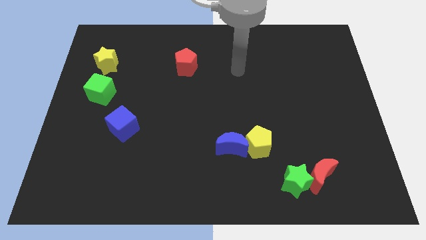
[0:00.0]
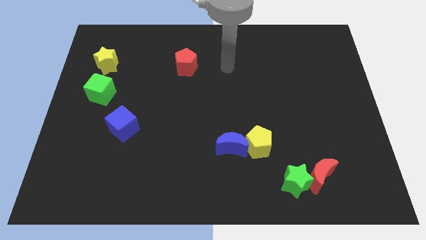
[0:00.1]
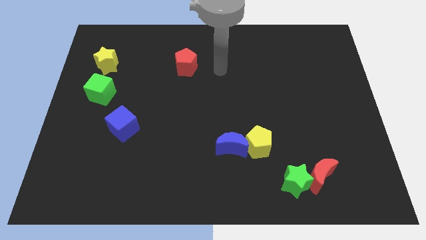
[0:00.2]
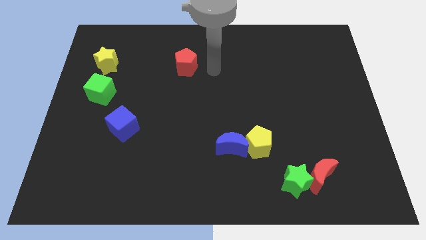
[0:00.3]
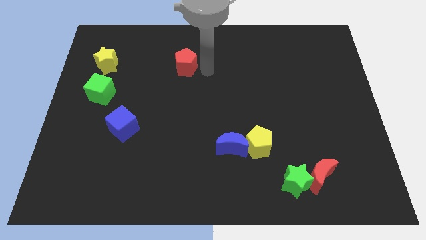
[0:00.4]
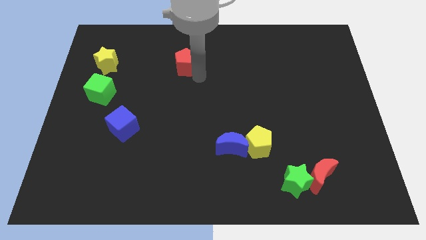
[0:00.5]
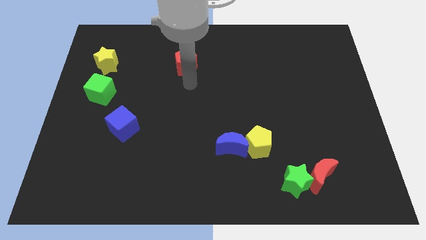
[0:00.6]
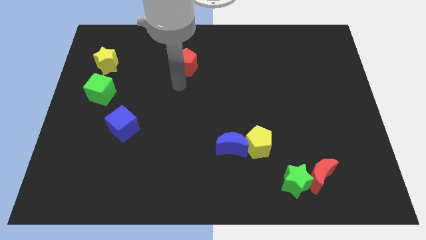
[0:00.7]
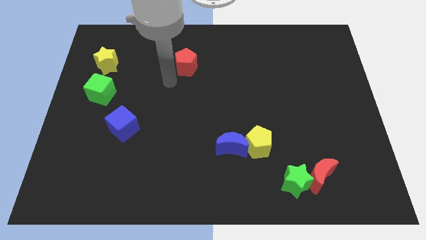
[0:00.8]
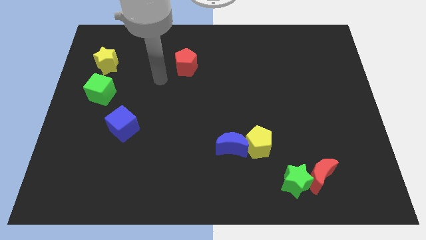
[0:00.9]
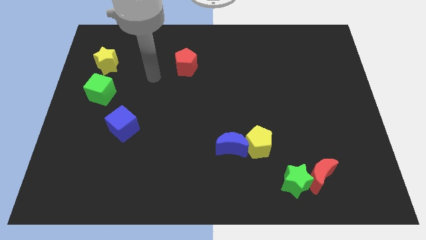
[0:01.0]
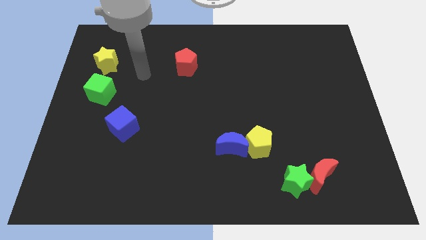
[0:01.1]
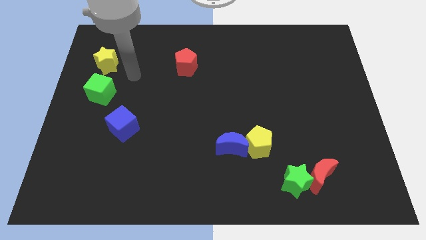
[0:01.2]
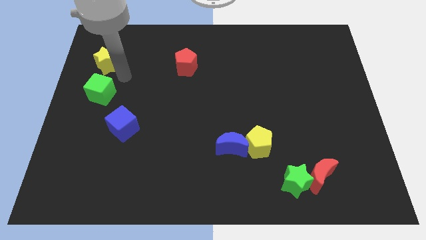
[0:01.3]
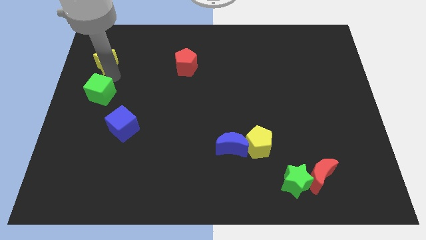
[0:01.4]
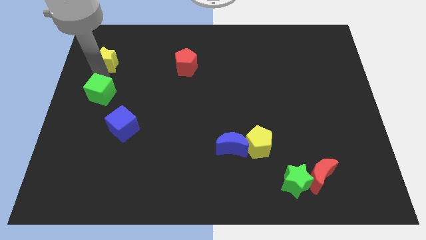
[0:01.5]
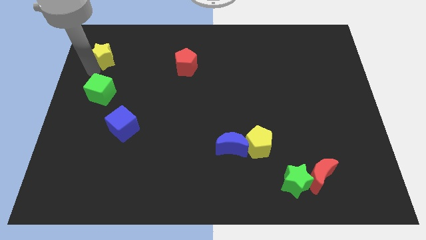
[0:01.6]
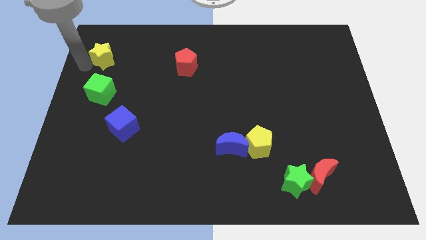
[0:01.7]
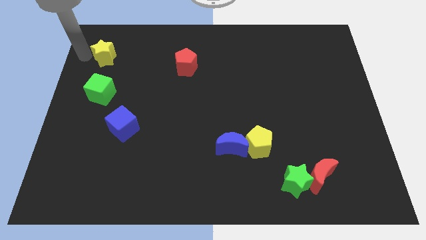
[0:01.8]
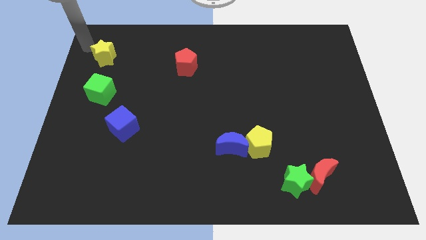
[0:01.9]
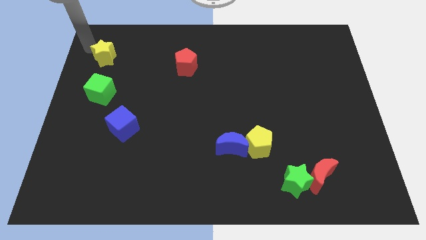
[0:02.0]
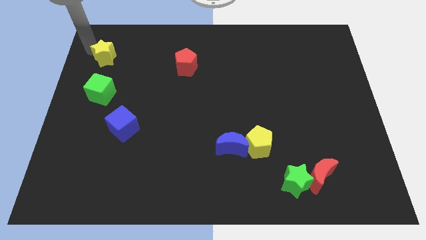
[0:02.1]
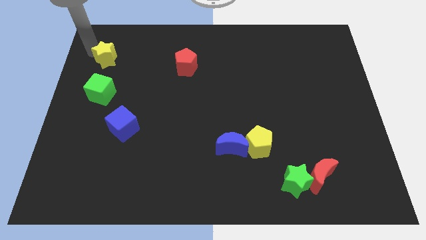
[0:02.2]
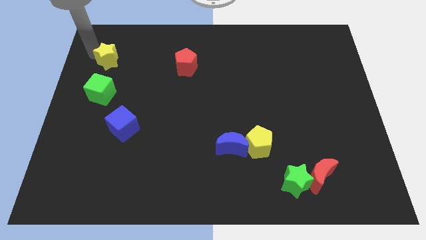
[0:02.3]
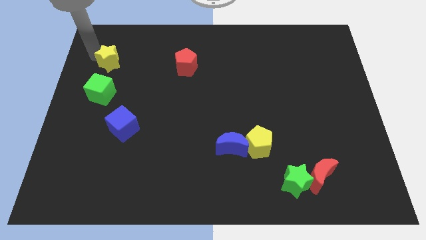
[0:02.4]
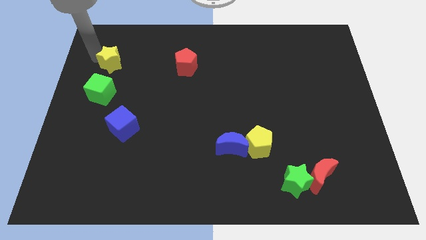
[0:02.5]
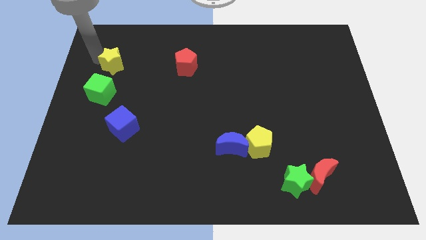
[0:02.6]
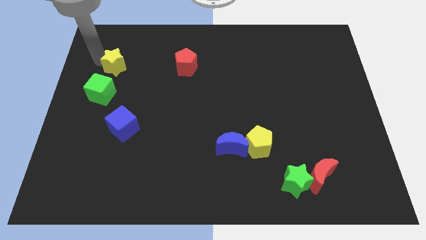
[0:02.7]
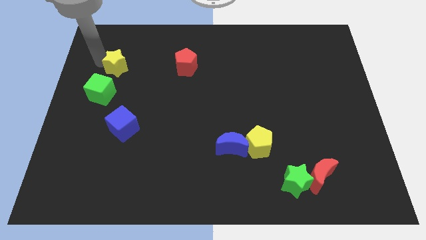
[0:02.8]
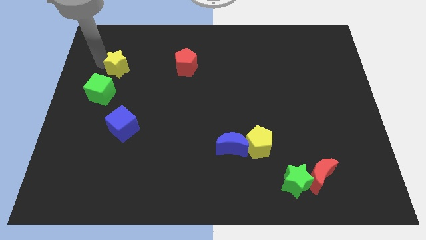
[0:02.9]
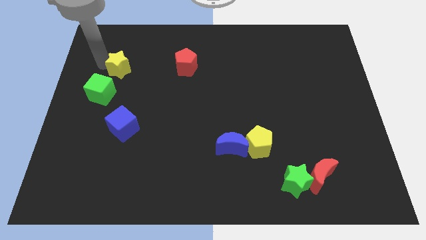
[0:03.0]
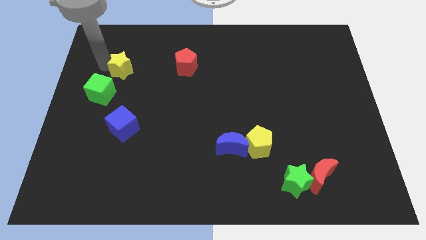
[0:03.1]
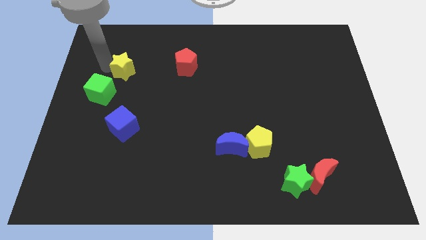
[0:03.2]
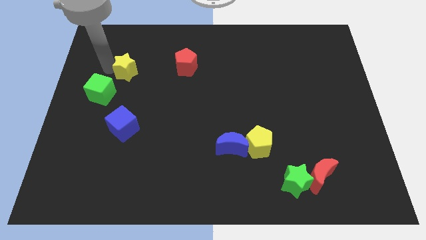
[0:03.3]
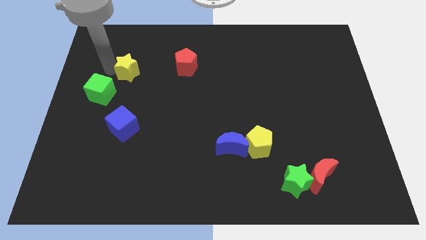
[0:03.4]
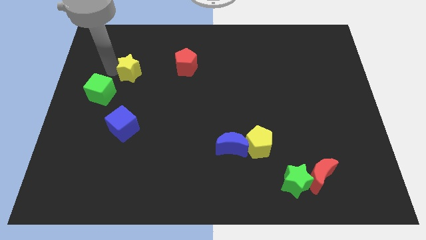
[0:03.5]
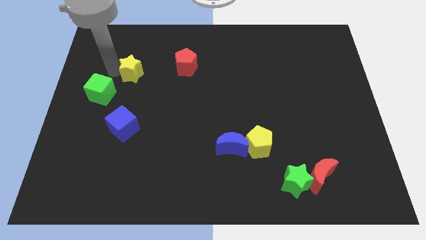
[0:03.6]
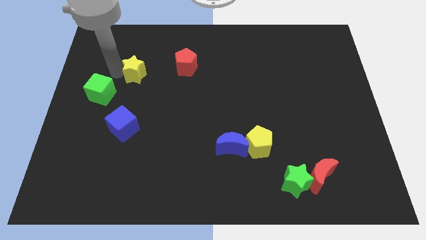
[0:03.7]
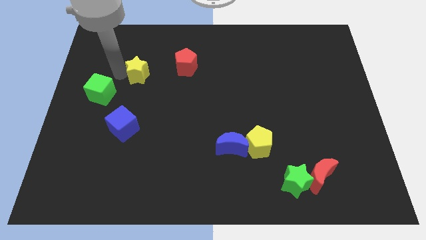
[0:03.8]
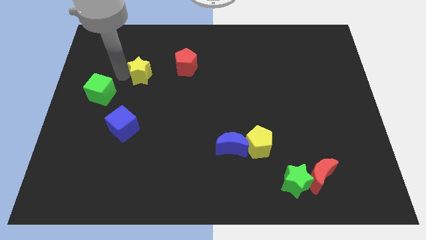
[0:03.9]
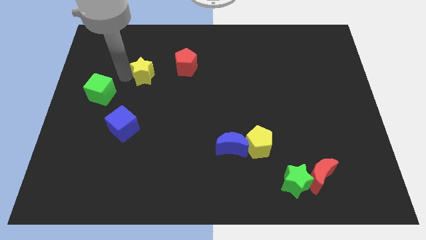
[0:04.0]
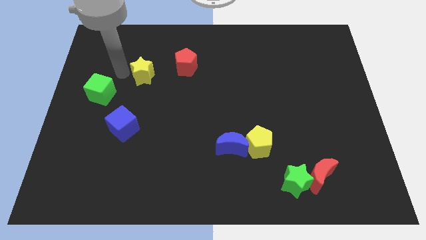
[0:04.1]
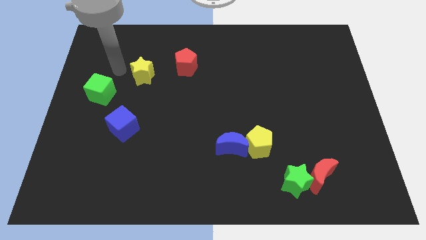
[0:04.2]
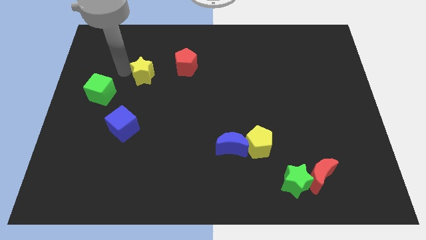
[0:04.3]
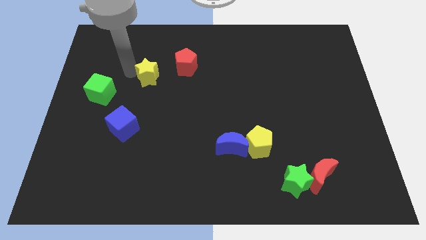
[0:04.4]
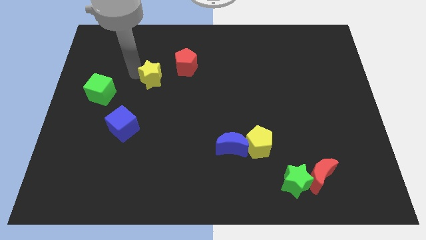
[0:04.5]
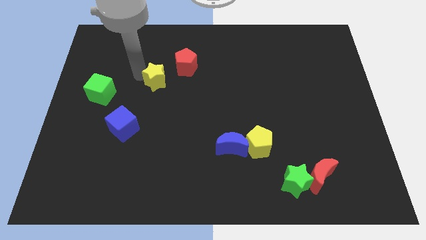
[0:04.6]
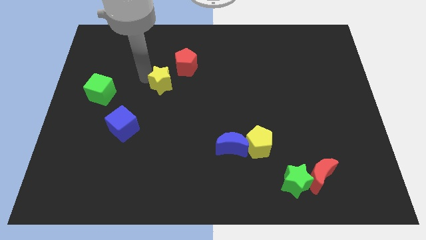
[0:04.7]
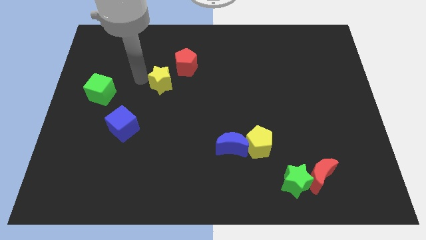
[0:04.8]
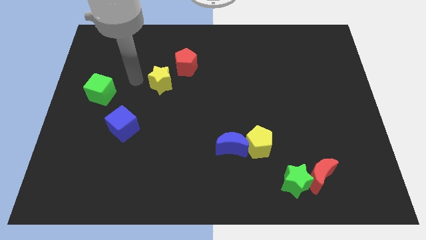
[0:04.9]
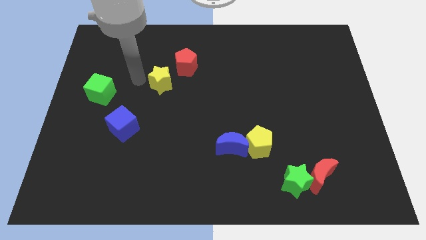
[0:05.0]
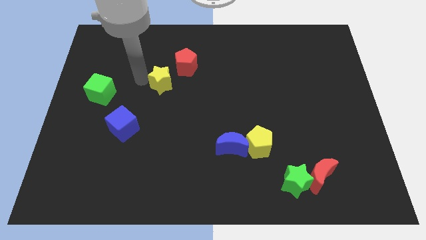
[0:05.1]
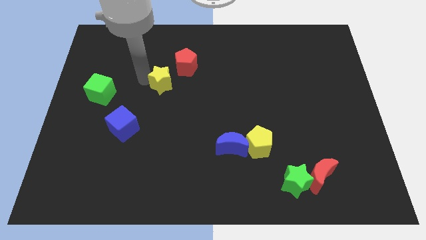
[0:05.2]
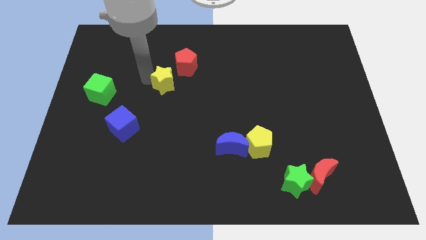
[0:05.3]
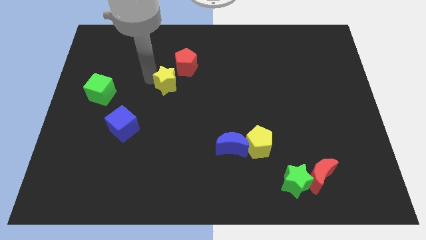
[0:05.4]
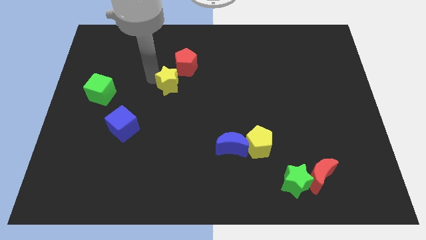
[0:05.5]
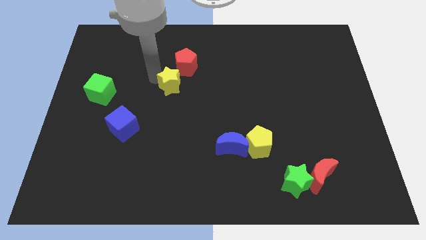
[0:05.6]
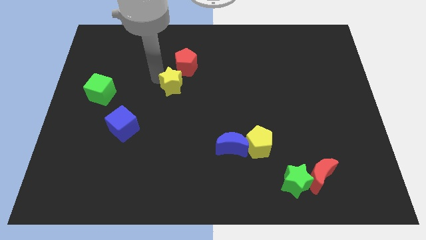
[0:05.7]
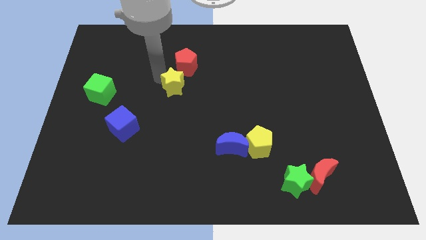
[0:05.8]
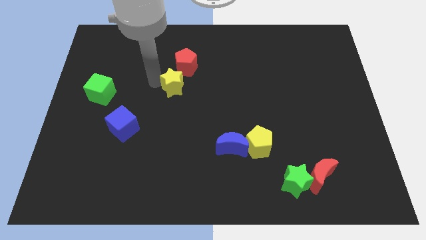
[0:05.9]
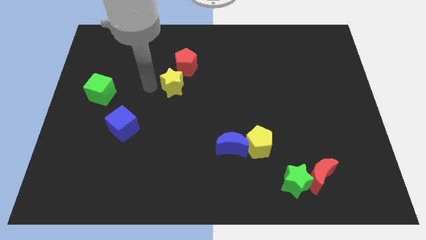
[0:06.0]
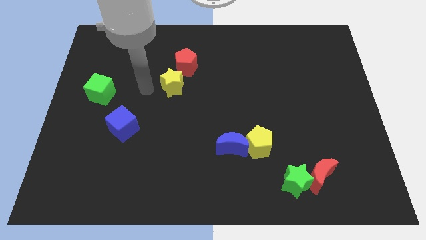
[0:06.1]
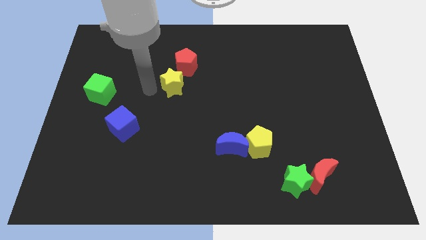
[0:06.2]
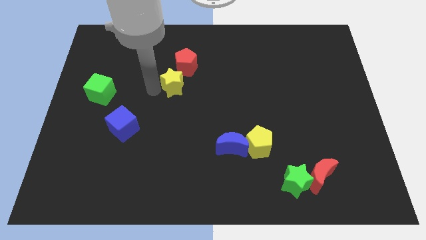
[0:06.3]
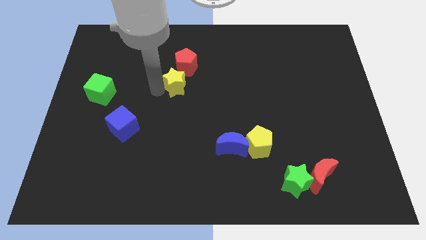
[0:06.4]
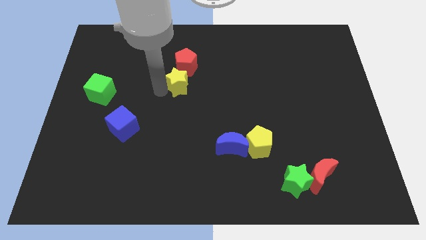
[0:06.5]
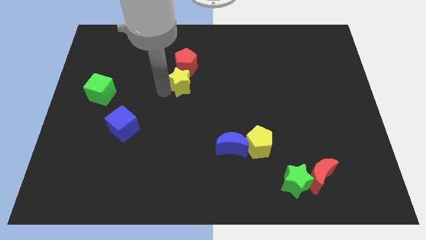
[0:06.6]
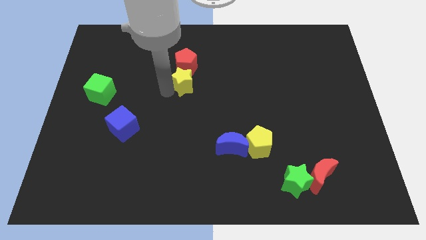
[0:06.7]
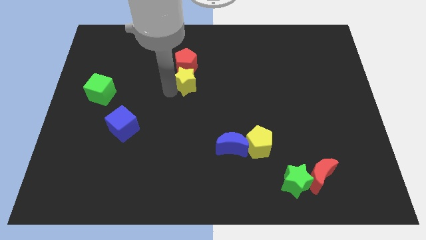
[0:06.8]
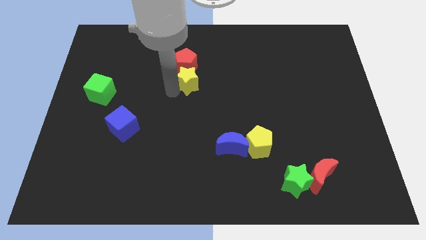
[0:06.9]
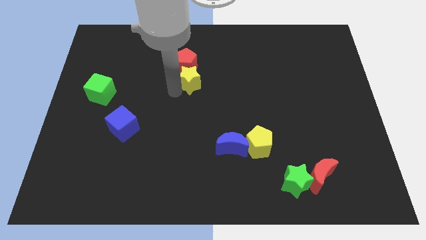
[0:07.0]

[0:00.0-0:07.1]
move the yellow star to the right

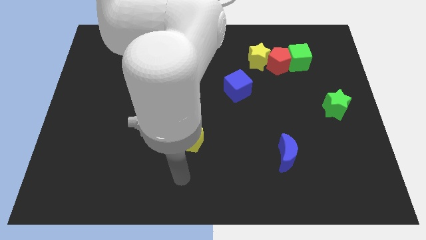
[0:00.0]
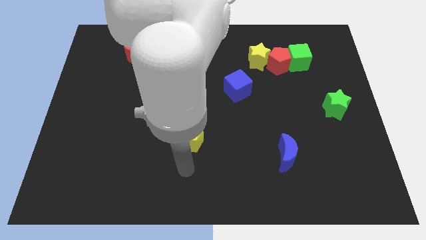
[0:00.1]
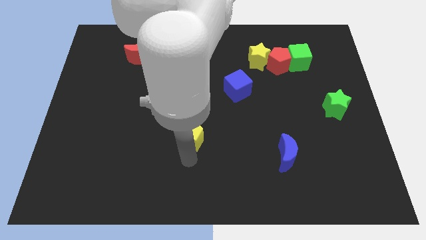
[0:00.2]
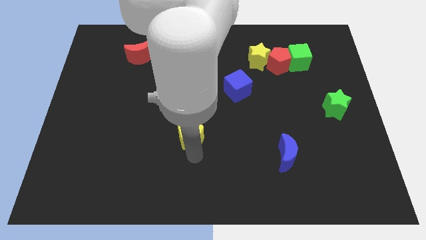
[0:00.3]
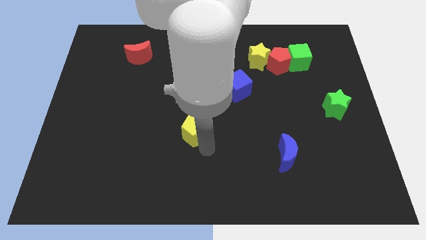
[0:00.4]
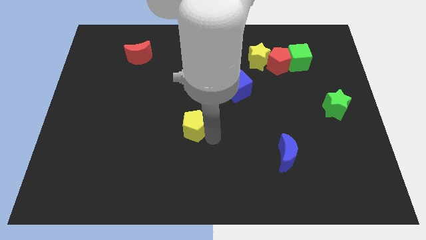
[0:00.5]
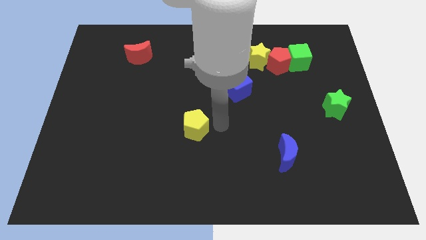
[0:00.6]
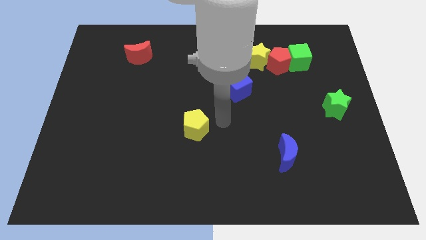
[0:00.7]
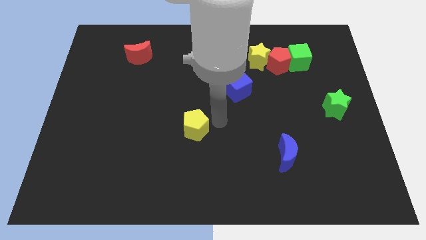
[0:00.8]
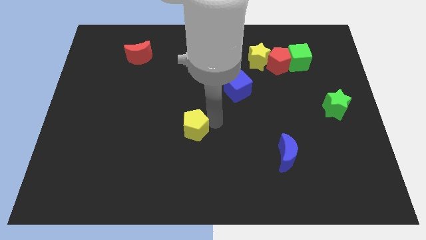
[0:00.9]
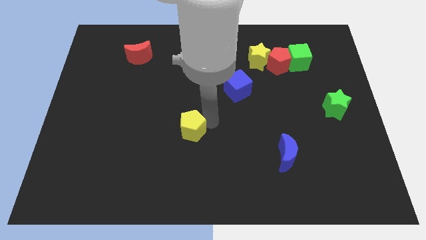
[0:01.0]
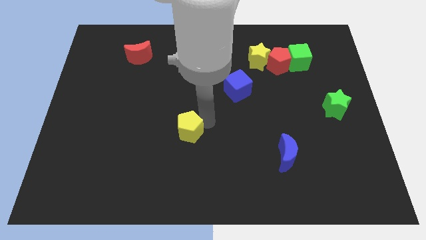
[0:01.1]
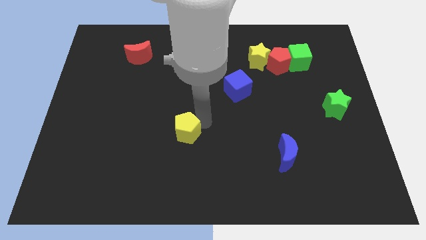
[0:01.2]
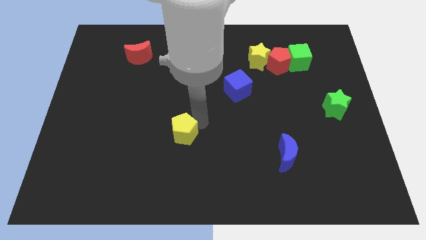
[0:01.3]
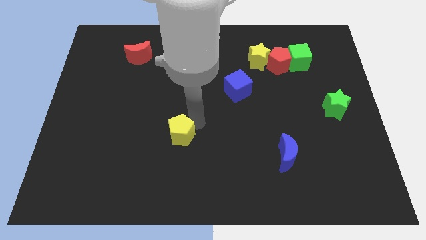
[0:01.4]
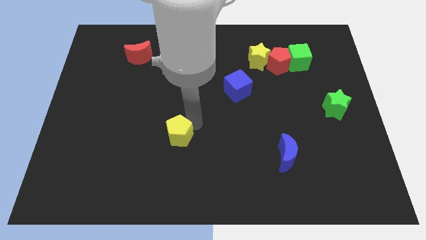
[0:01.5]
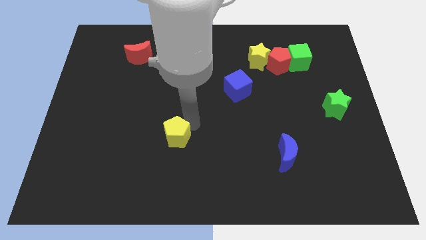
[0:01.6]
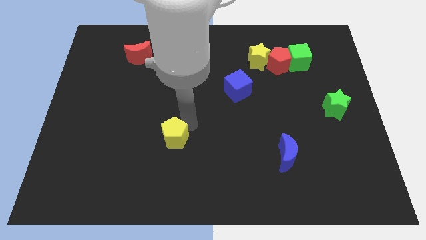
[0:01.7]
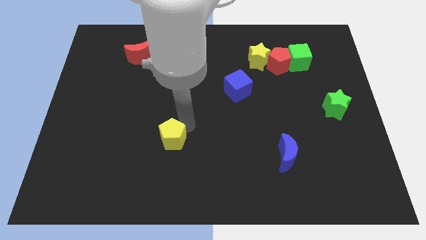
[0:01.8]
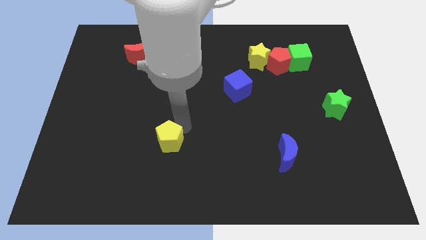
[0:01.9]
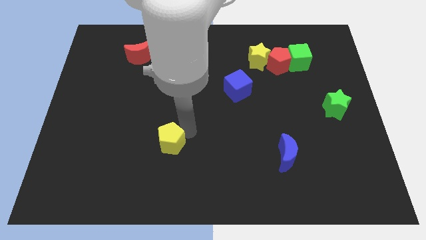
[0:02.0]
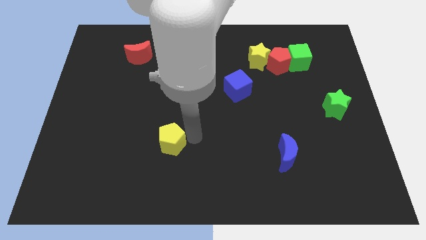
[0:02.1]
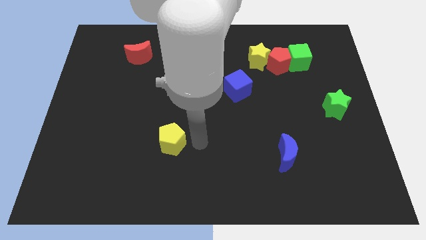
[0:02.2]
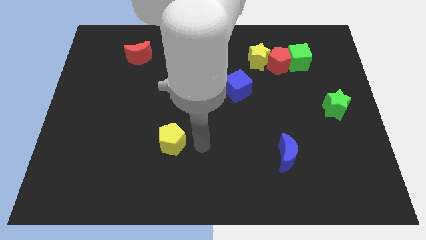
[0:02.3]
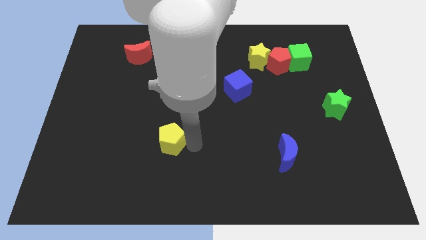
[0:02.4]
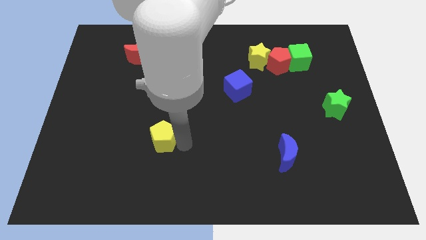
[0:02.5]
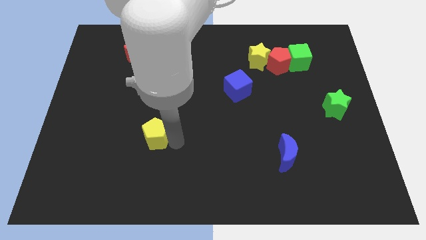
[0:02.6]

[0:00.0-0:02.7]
push the yellow pentagon a bit to the left
